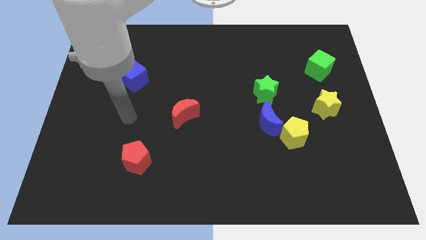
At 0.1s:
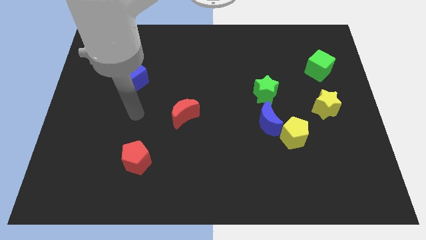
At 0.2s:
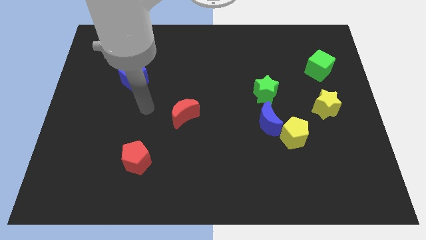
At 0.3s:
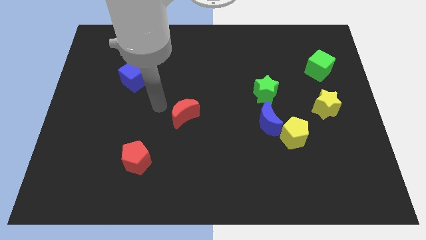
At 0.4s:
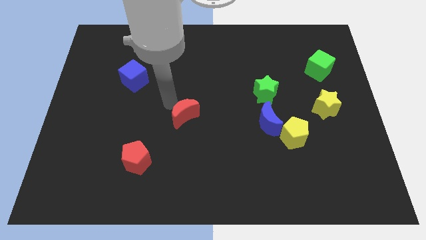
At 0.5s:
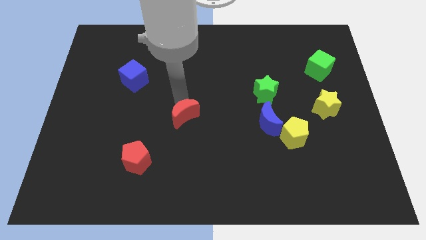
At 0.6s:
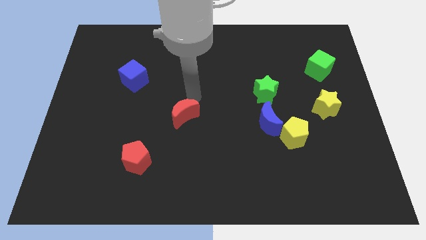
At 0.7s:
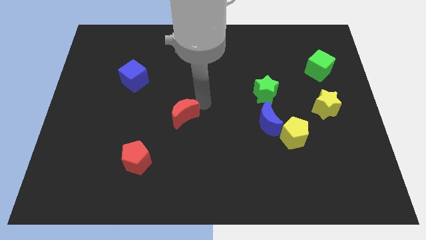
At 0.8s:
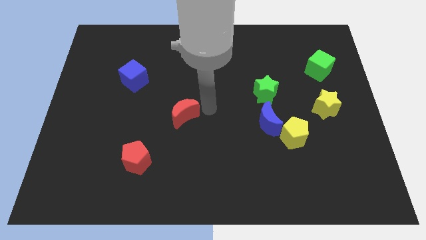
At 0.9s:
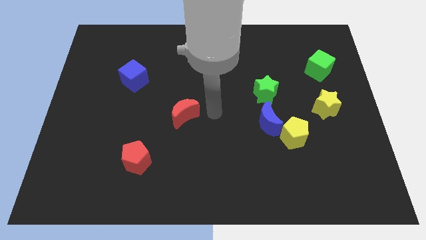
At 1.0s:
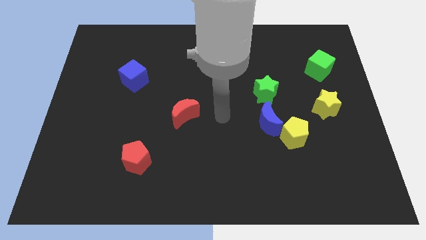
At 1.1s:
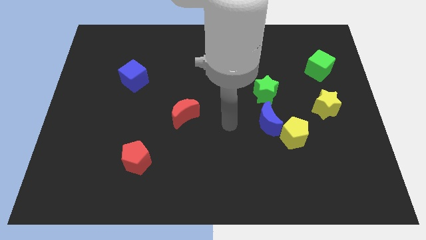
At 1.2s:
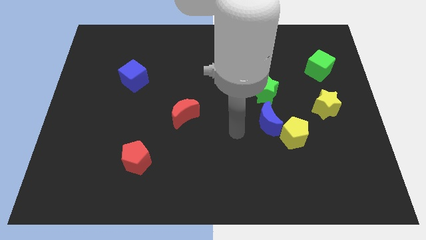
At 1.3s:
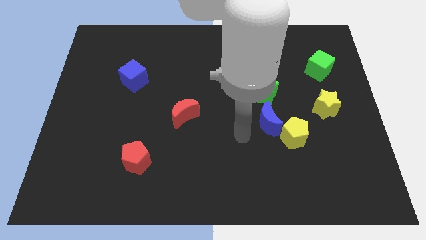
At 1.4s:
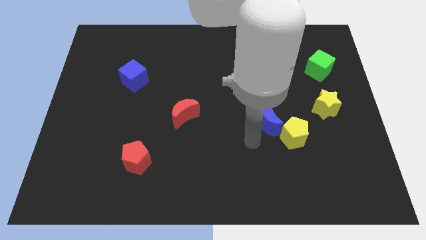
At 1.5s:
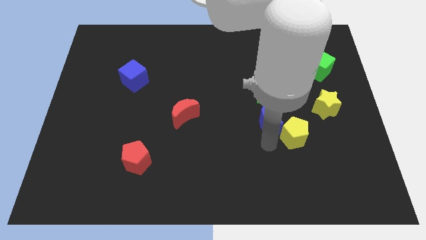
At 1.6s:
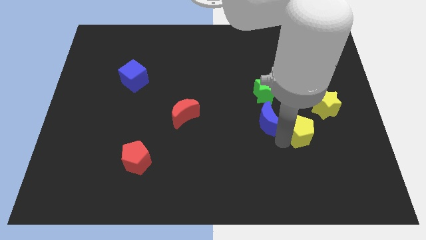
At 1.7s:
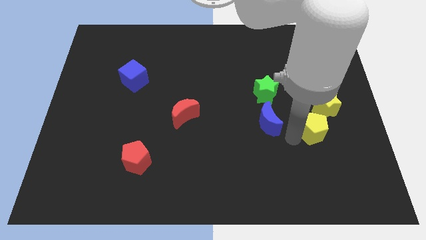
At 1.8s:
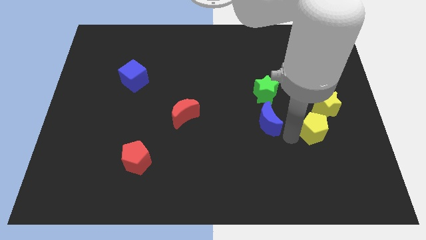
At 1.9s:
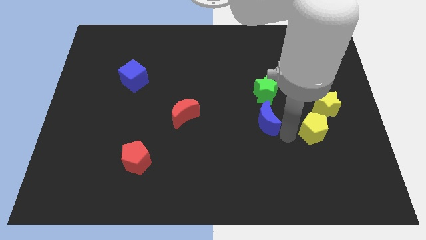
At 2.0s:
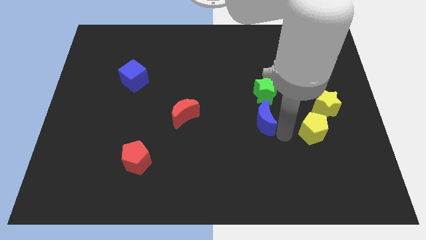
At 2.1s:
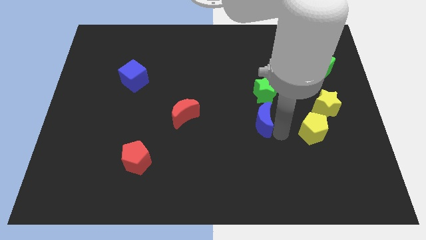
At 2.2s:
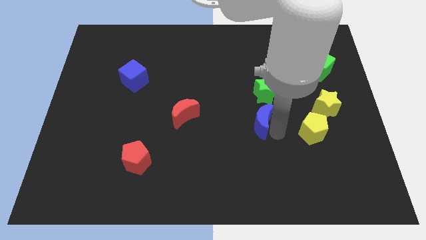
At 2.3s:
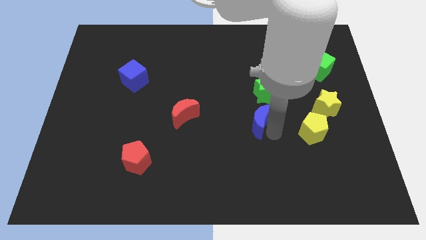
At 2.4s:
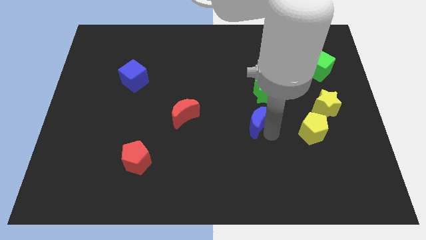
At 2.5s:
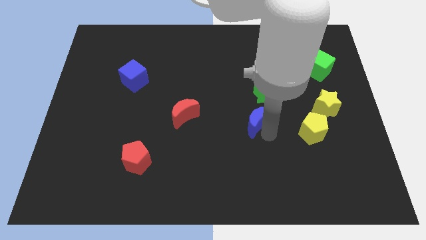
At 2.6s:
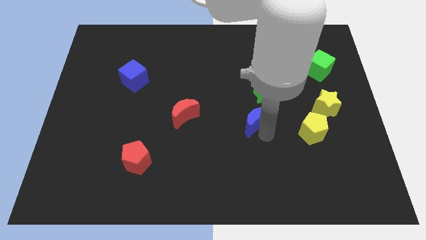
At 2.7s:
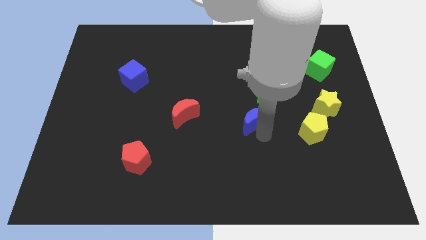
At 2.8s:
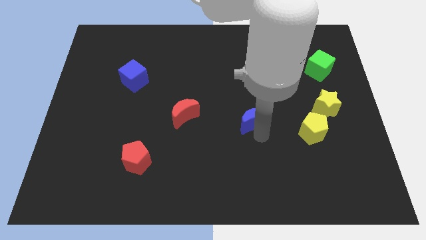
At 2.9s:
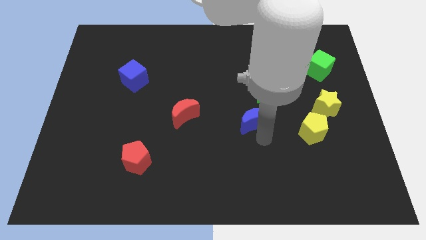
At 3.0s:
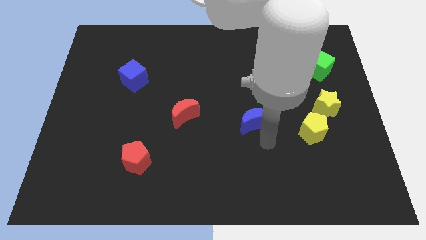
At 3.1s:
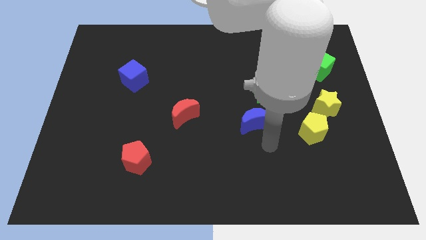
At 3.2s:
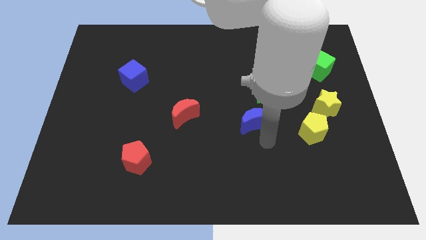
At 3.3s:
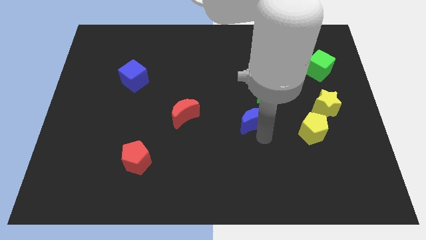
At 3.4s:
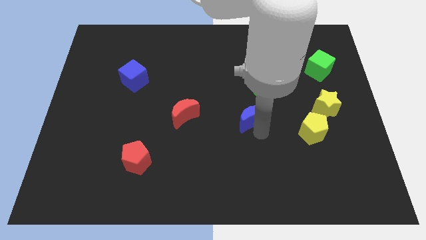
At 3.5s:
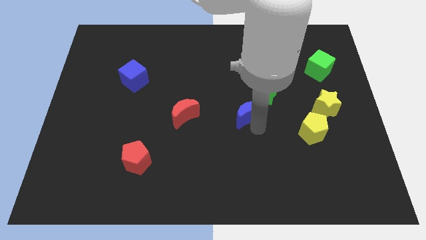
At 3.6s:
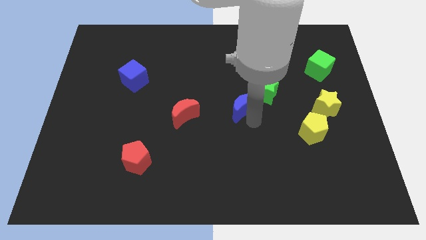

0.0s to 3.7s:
move the blue moon diagonally up and left a little bit

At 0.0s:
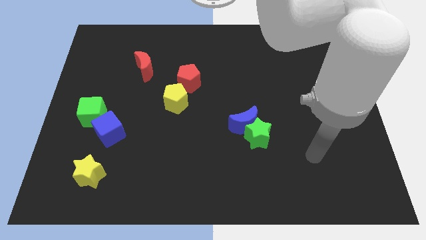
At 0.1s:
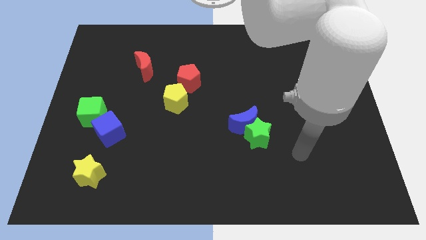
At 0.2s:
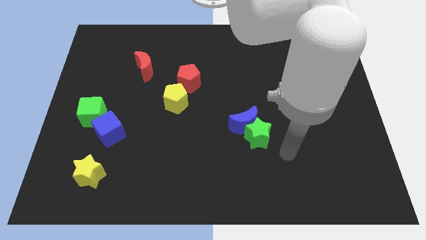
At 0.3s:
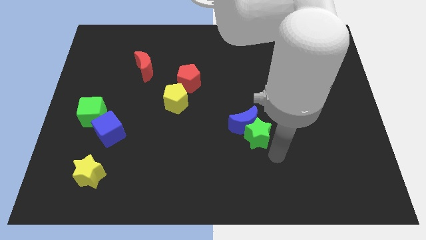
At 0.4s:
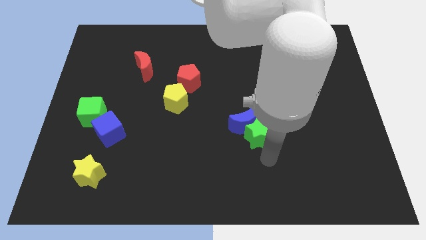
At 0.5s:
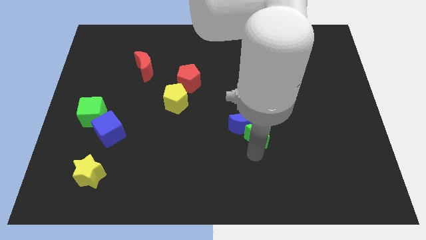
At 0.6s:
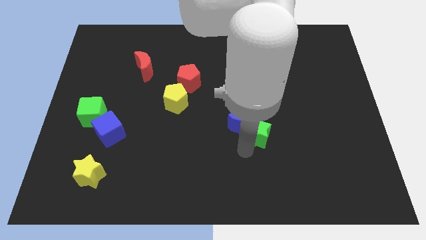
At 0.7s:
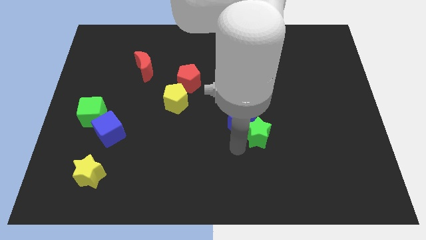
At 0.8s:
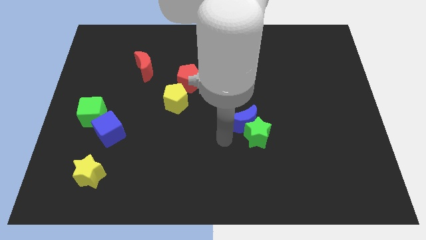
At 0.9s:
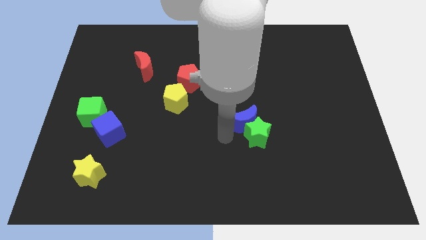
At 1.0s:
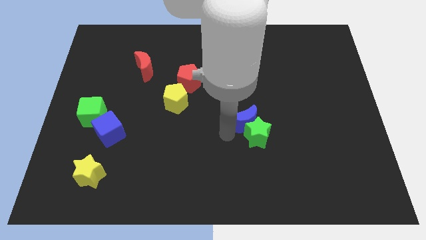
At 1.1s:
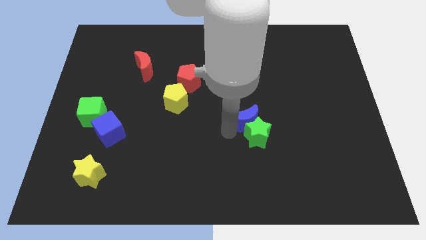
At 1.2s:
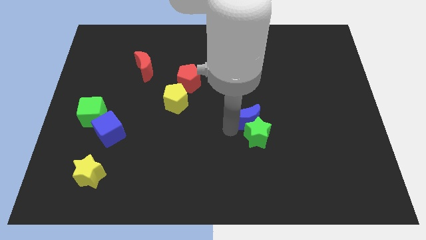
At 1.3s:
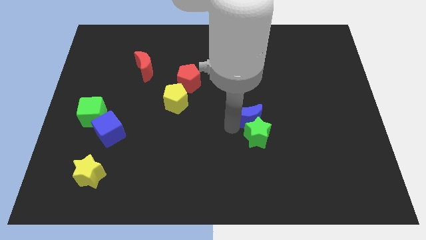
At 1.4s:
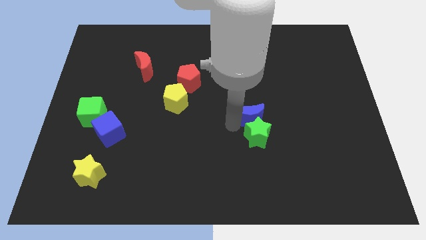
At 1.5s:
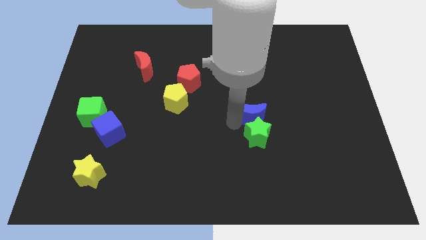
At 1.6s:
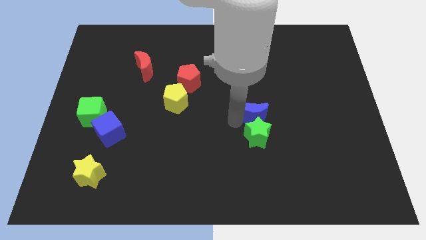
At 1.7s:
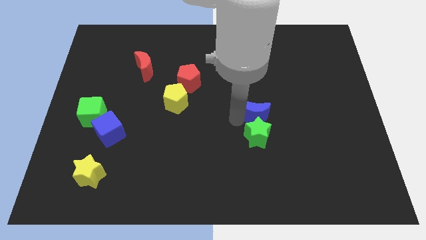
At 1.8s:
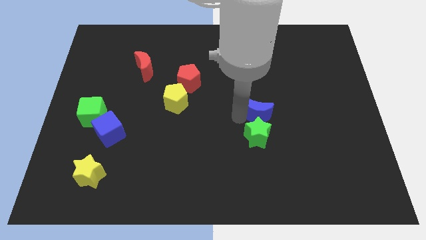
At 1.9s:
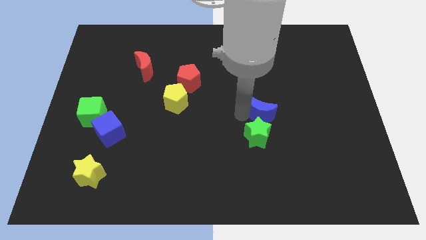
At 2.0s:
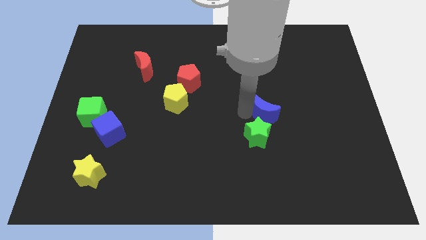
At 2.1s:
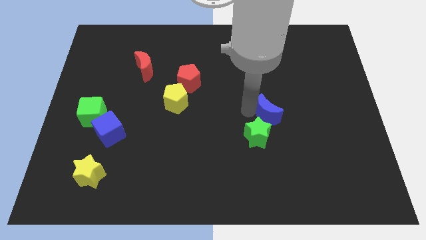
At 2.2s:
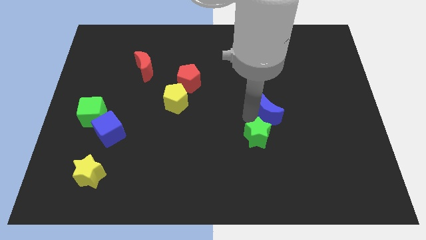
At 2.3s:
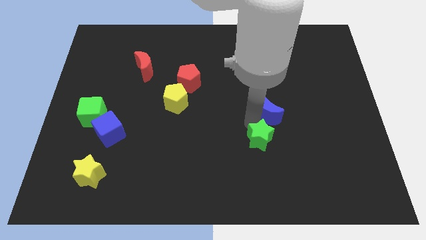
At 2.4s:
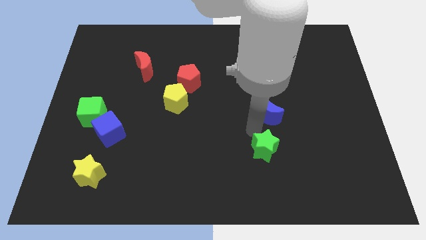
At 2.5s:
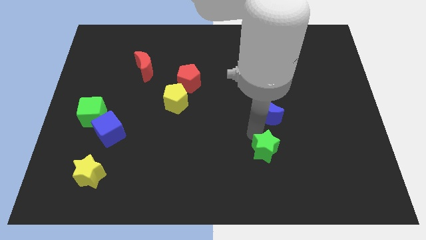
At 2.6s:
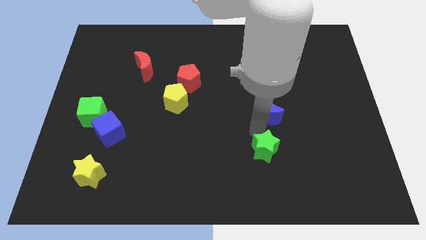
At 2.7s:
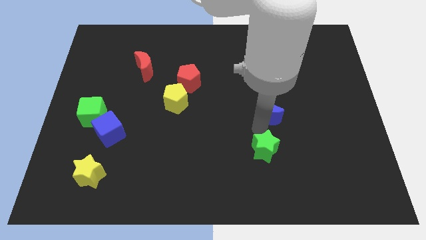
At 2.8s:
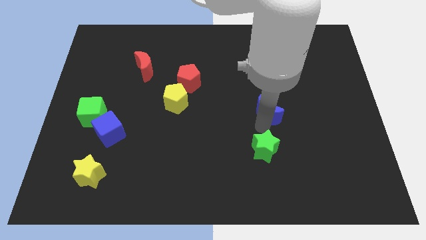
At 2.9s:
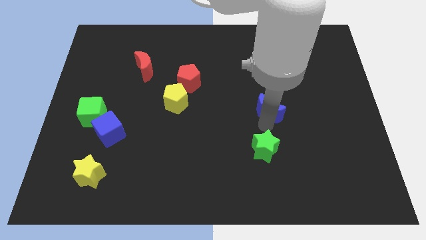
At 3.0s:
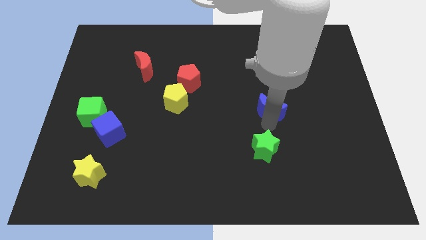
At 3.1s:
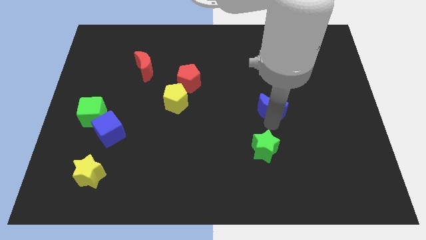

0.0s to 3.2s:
move the blue moon a little bit up and then right

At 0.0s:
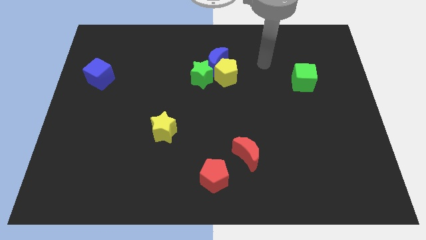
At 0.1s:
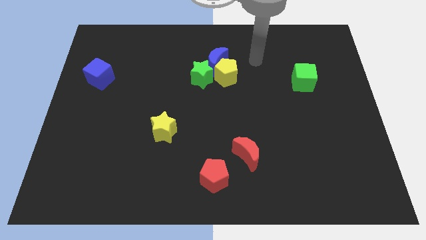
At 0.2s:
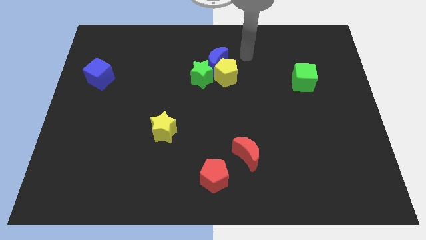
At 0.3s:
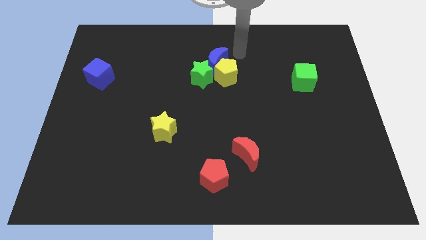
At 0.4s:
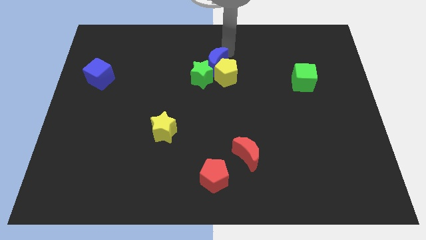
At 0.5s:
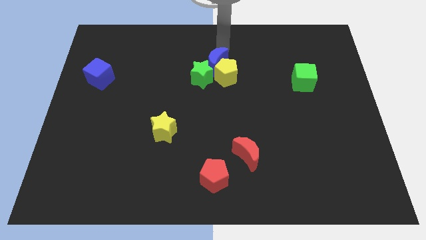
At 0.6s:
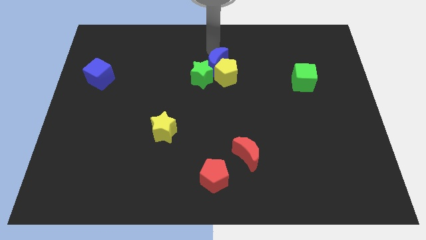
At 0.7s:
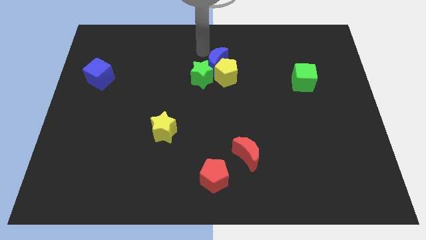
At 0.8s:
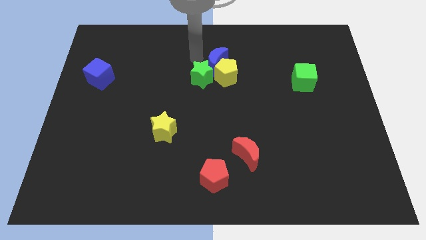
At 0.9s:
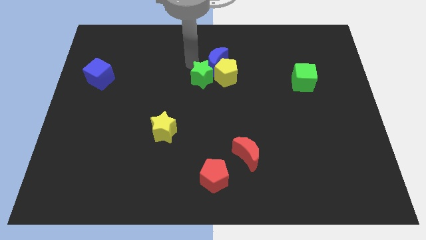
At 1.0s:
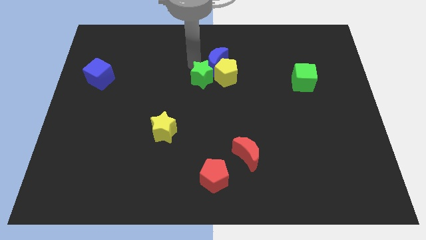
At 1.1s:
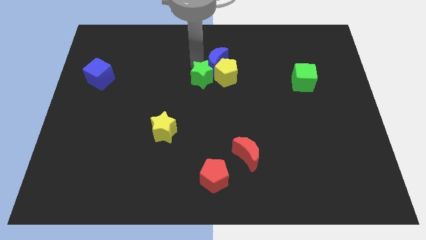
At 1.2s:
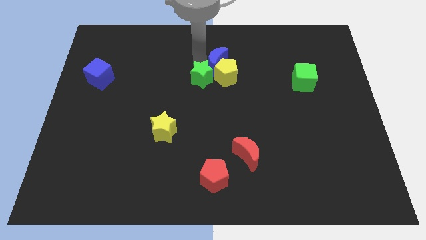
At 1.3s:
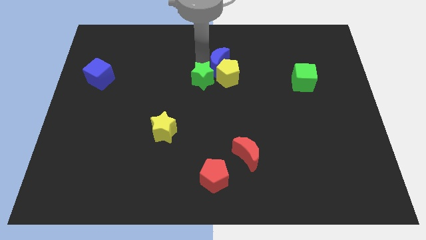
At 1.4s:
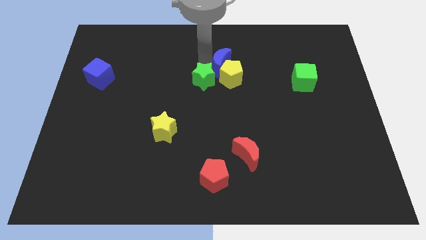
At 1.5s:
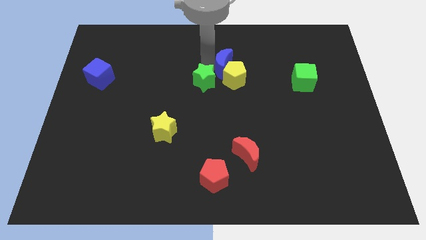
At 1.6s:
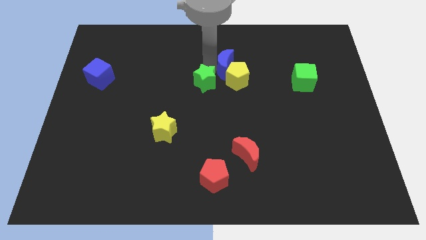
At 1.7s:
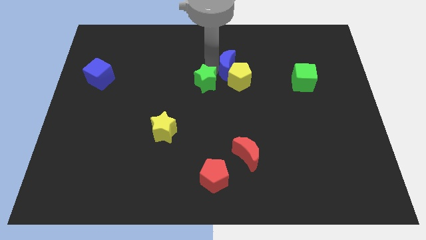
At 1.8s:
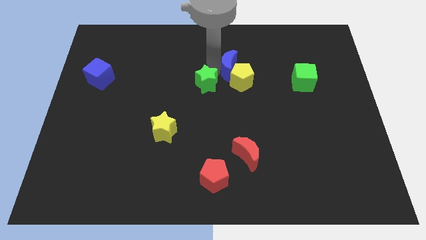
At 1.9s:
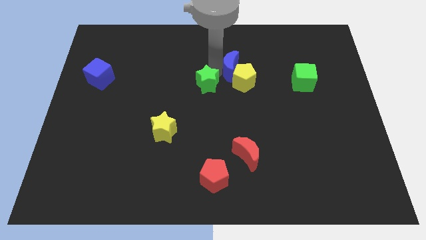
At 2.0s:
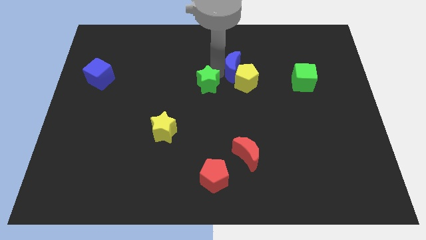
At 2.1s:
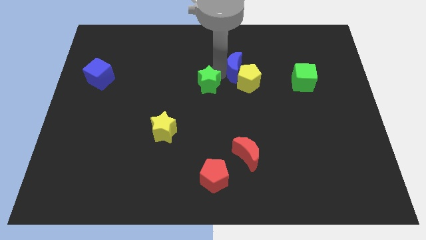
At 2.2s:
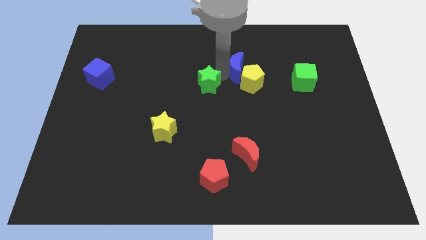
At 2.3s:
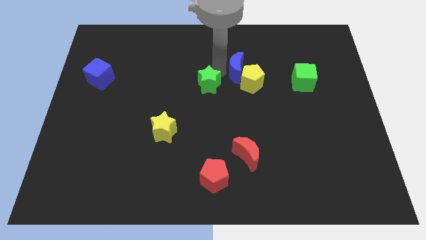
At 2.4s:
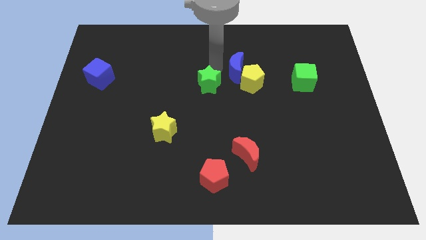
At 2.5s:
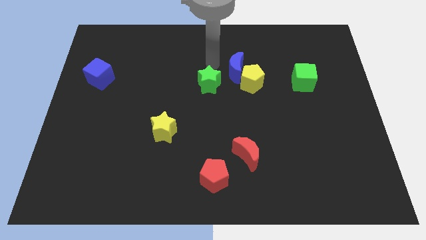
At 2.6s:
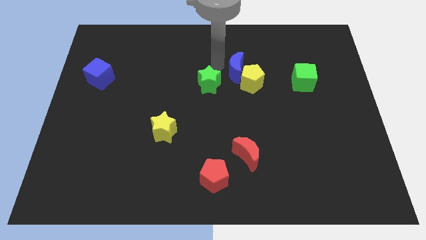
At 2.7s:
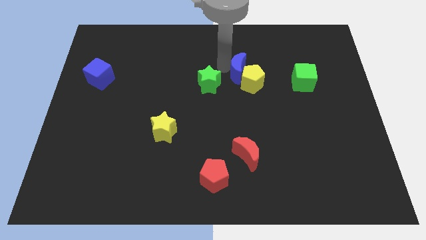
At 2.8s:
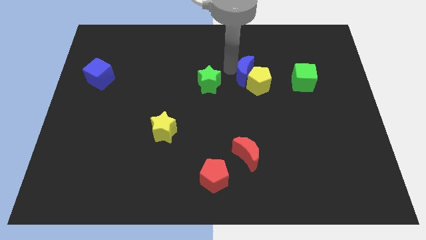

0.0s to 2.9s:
slightly push the blue moon diagonally down and right
